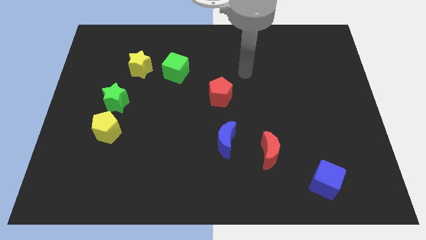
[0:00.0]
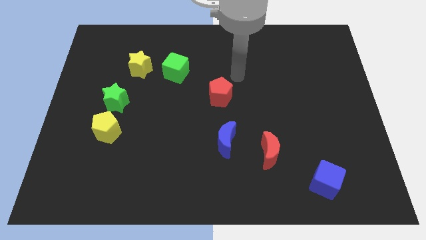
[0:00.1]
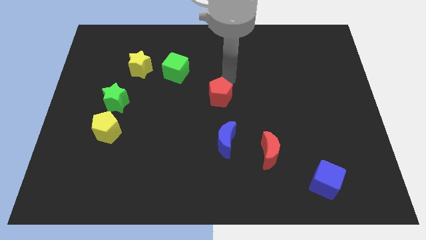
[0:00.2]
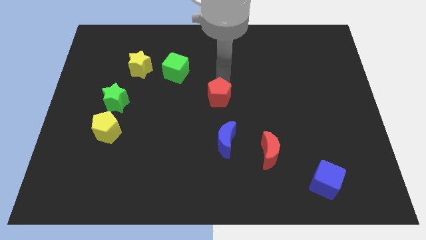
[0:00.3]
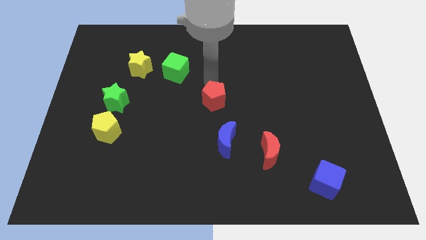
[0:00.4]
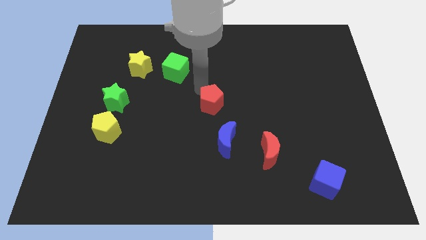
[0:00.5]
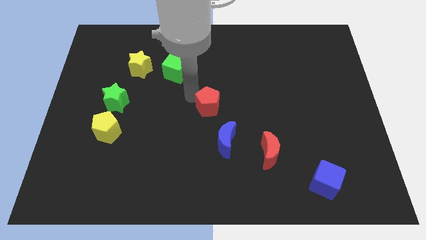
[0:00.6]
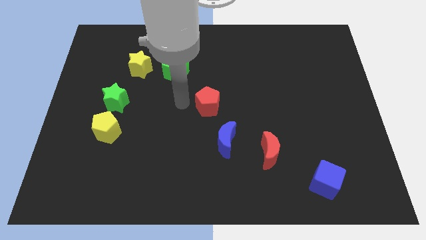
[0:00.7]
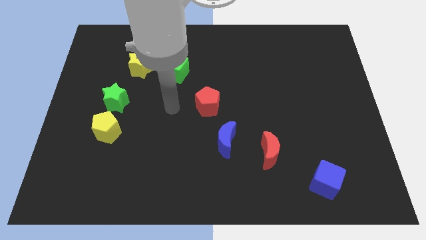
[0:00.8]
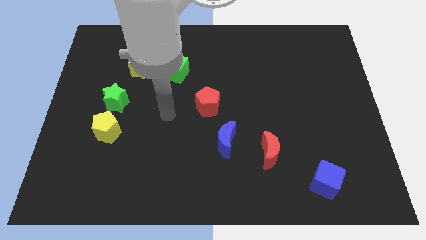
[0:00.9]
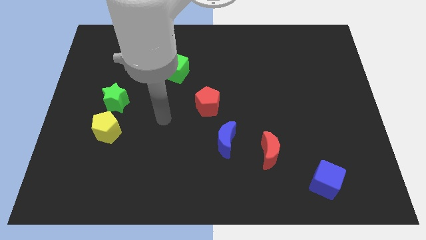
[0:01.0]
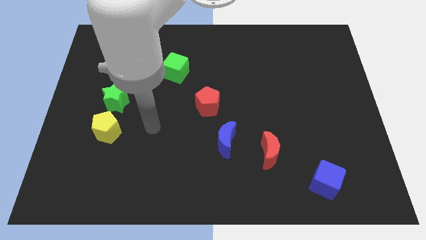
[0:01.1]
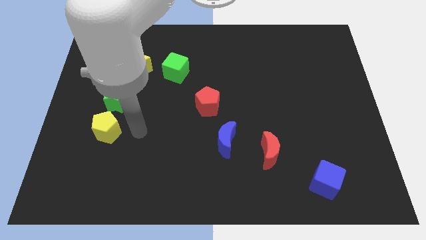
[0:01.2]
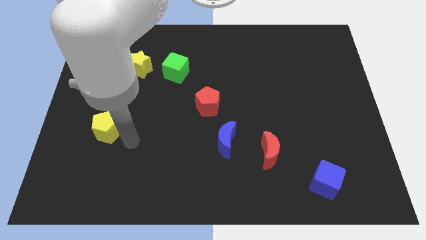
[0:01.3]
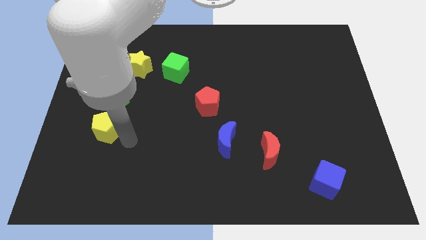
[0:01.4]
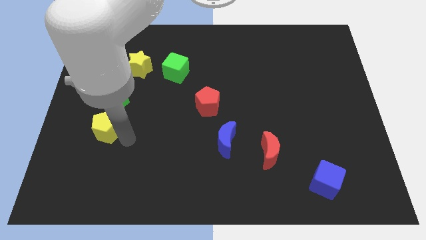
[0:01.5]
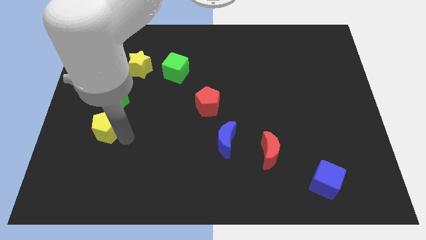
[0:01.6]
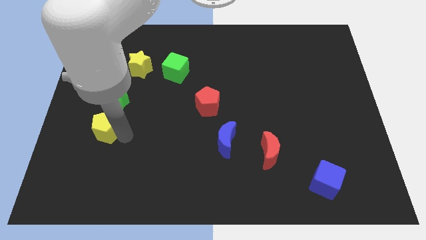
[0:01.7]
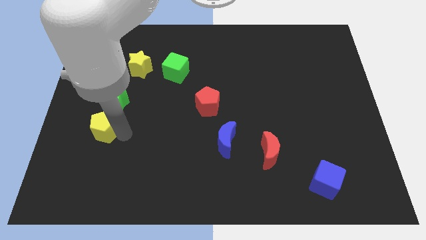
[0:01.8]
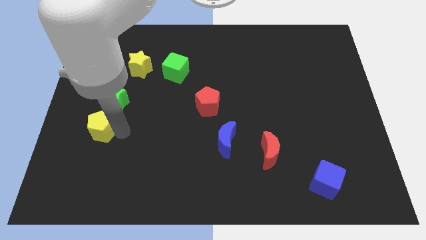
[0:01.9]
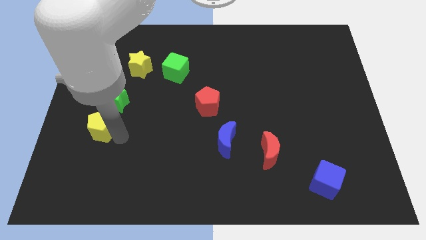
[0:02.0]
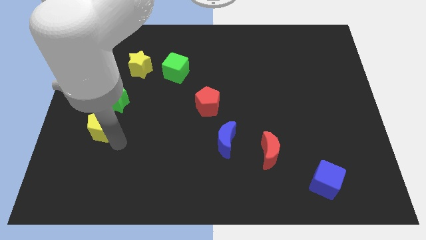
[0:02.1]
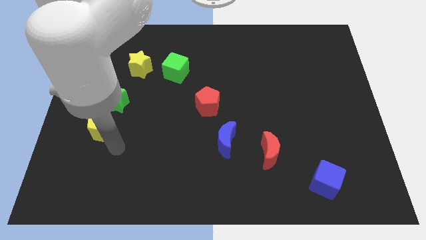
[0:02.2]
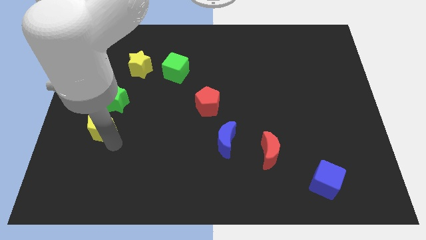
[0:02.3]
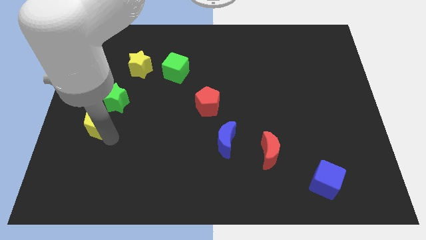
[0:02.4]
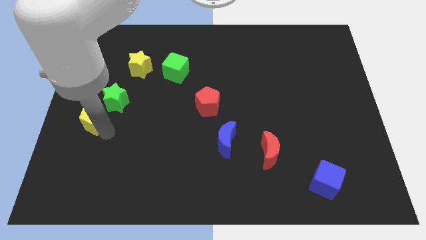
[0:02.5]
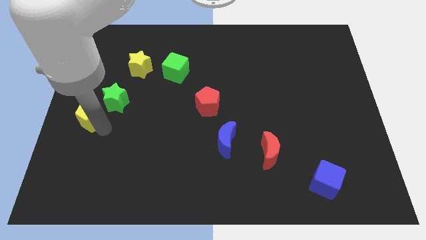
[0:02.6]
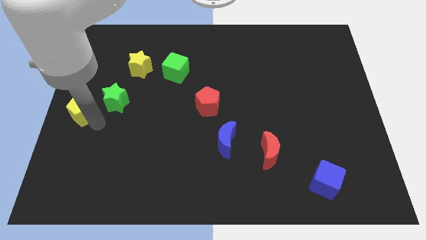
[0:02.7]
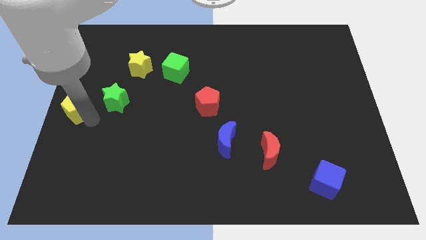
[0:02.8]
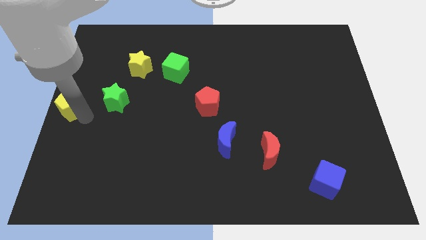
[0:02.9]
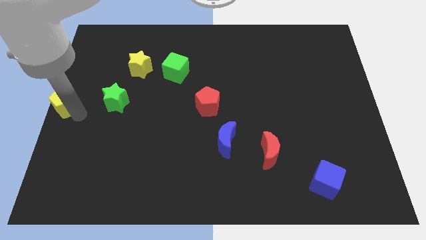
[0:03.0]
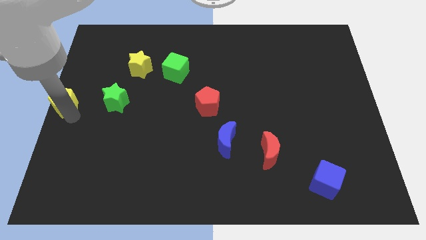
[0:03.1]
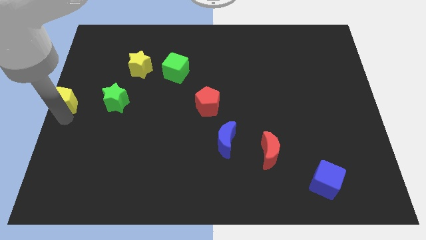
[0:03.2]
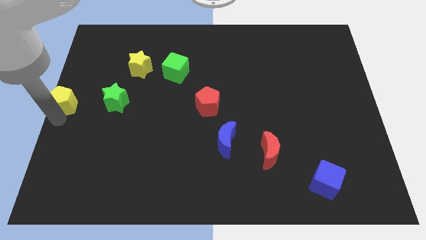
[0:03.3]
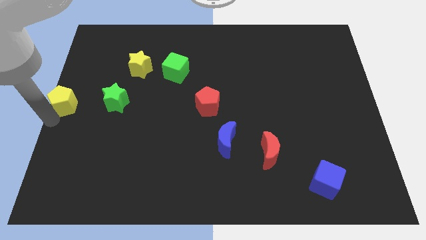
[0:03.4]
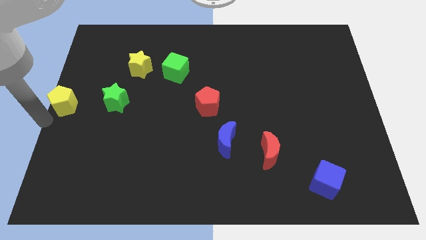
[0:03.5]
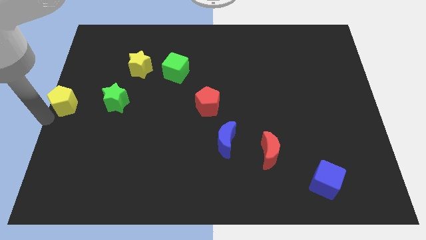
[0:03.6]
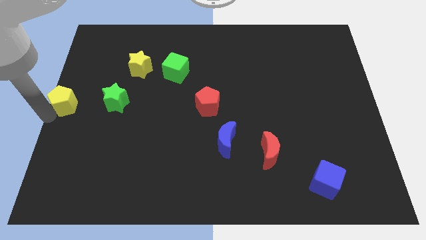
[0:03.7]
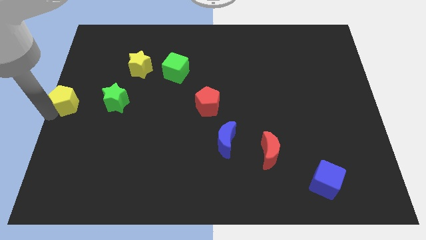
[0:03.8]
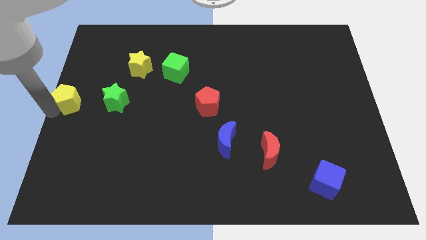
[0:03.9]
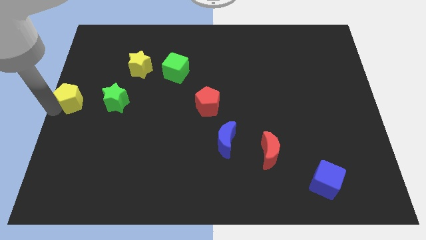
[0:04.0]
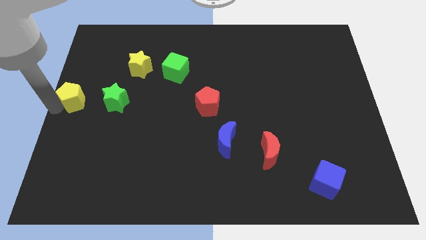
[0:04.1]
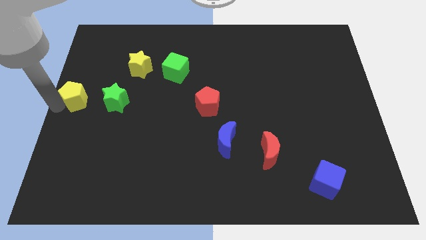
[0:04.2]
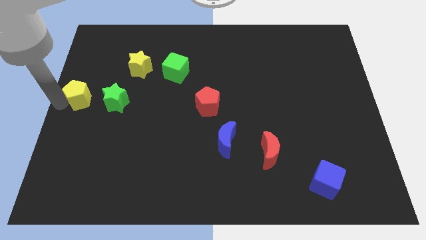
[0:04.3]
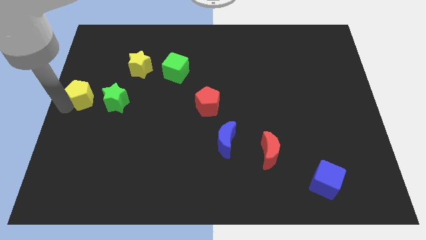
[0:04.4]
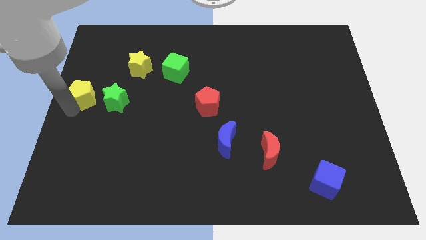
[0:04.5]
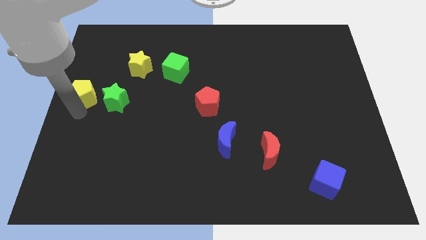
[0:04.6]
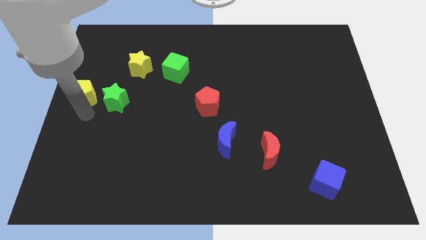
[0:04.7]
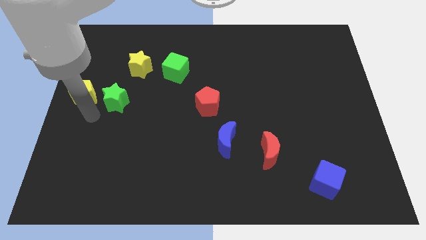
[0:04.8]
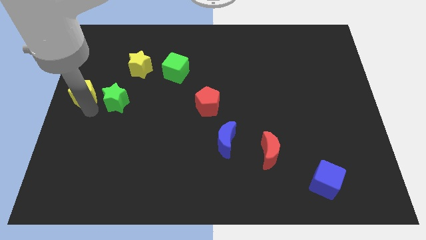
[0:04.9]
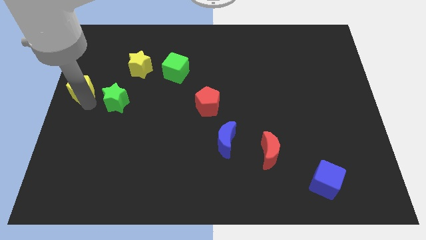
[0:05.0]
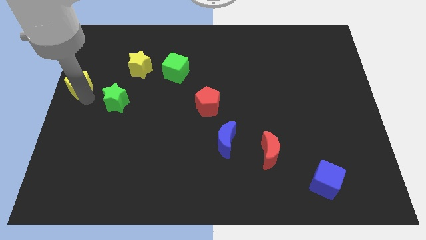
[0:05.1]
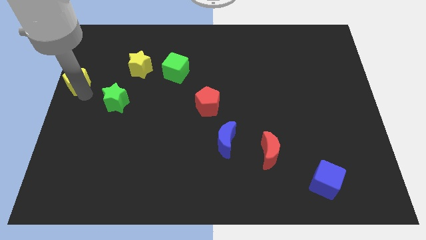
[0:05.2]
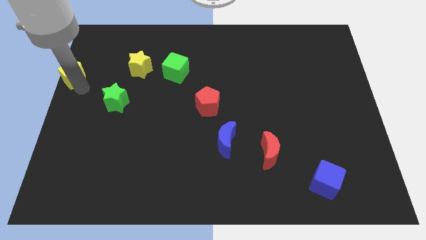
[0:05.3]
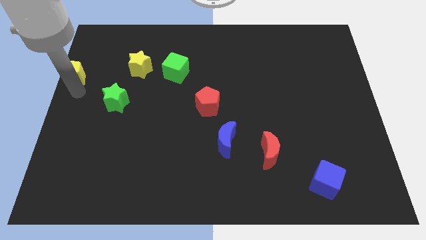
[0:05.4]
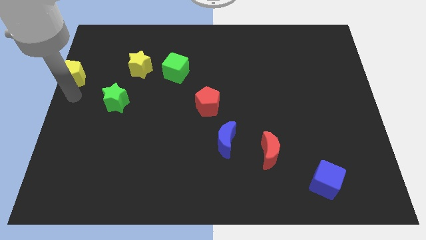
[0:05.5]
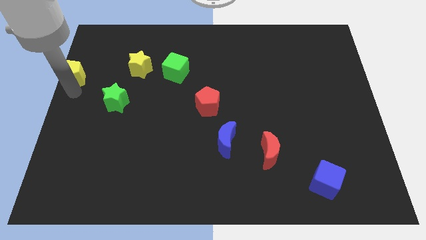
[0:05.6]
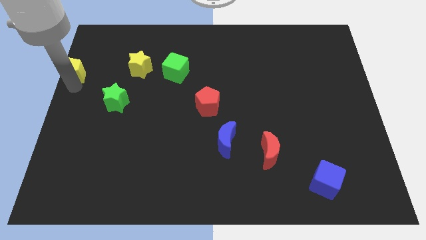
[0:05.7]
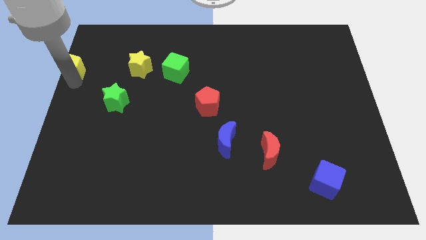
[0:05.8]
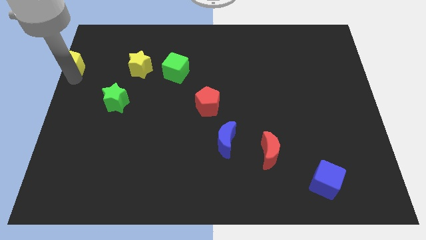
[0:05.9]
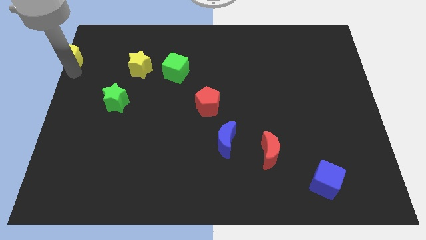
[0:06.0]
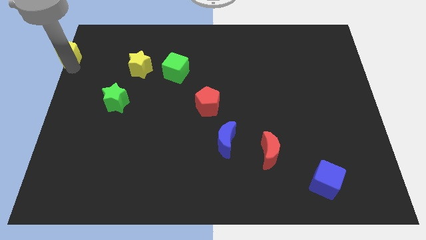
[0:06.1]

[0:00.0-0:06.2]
slide the yellow pentagon to the top left corner
